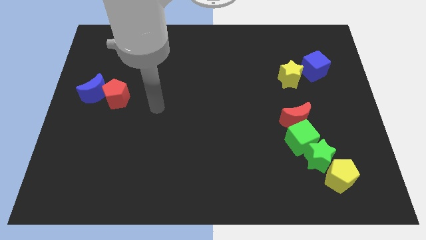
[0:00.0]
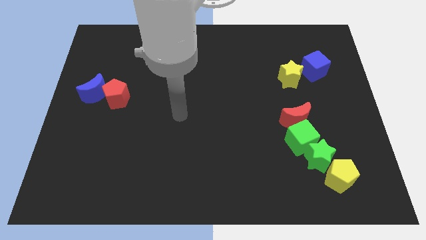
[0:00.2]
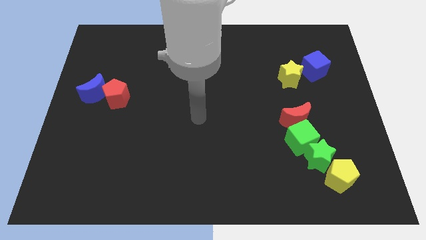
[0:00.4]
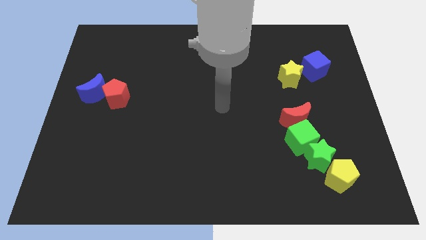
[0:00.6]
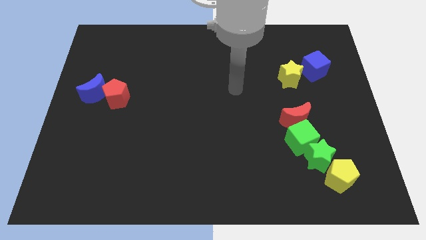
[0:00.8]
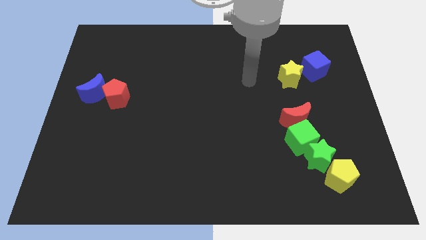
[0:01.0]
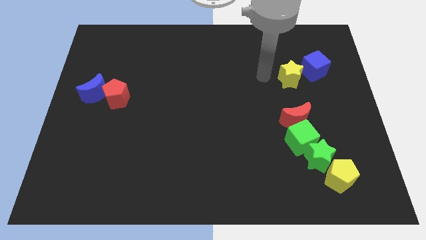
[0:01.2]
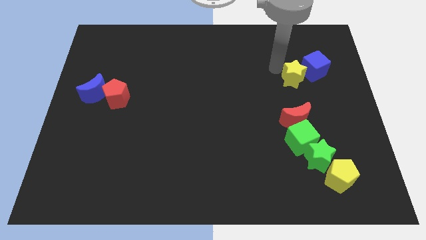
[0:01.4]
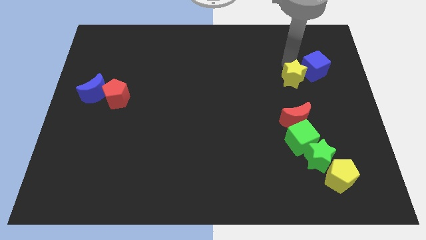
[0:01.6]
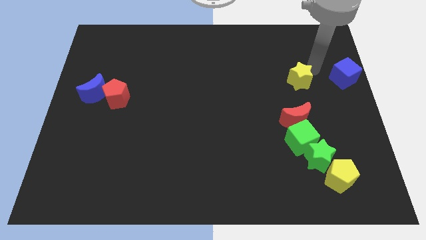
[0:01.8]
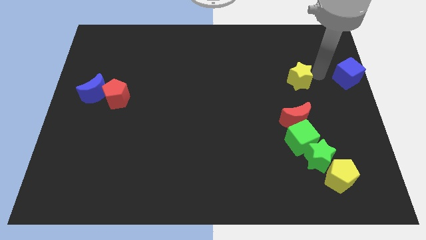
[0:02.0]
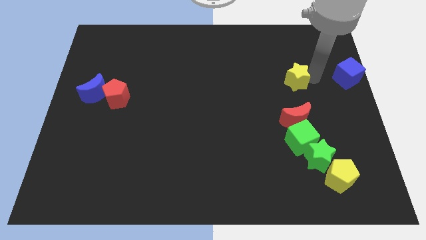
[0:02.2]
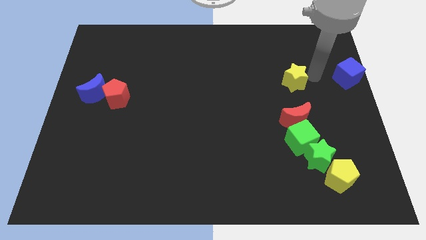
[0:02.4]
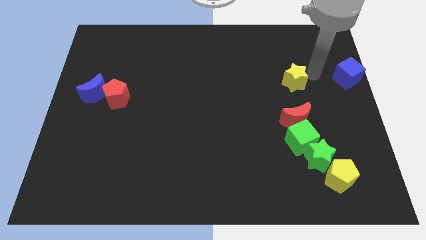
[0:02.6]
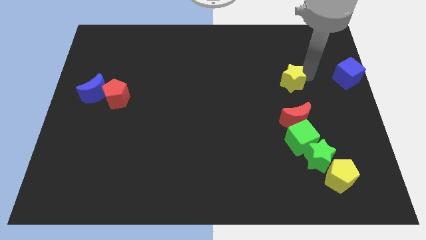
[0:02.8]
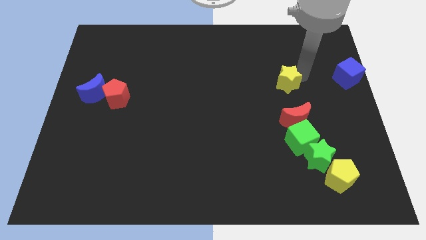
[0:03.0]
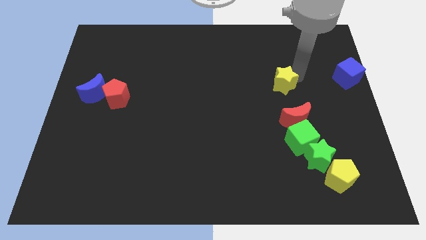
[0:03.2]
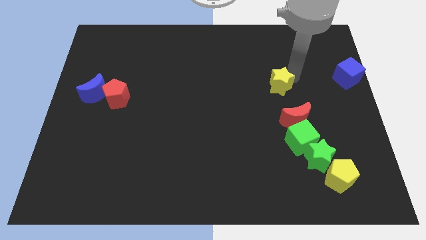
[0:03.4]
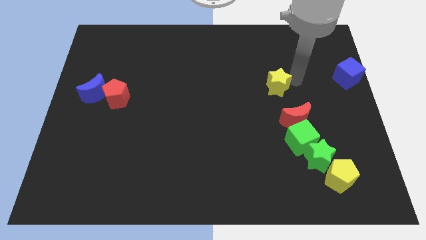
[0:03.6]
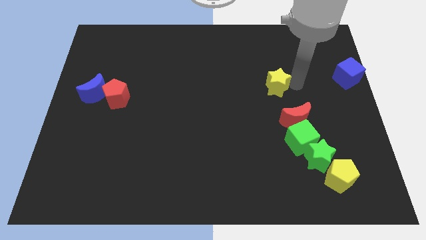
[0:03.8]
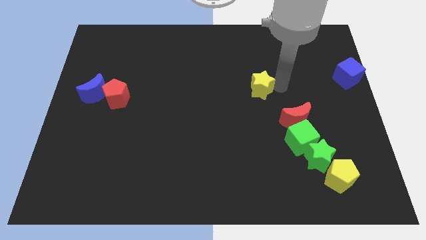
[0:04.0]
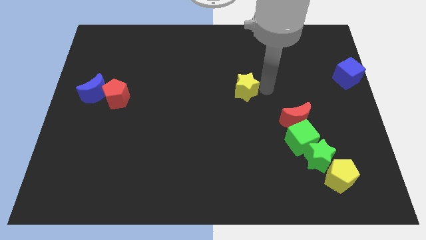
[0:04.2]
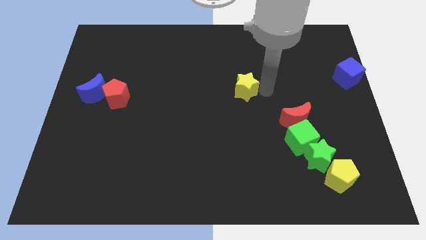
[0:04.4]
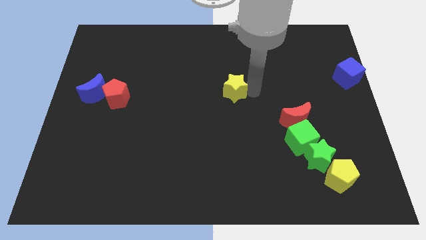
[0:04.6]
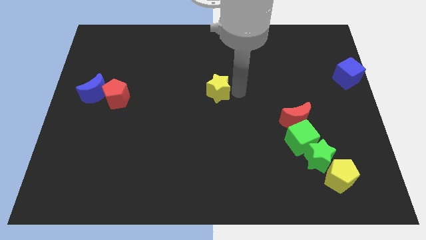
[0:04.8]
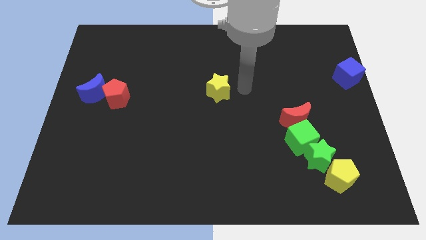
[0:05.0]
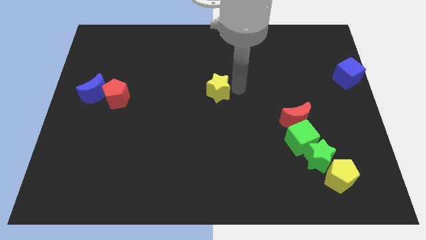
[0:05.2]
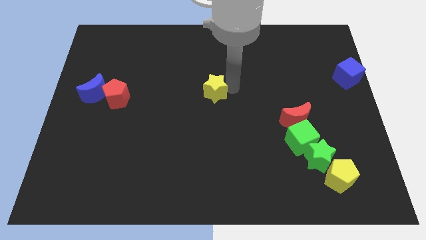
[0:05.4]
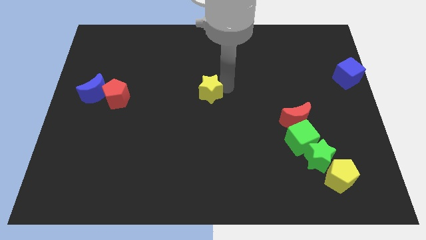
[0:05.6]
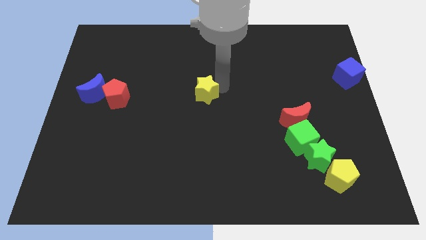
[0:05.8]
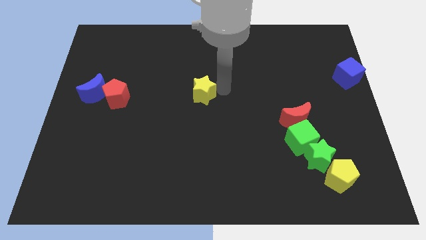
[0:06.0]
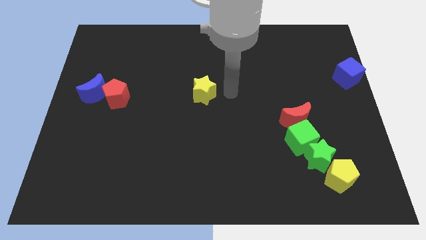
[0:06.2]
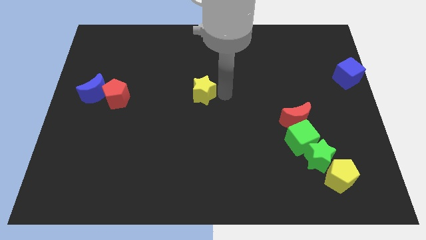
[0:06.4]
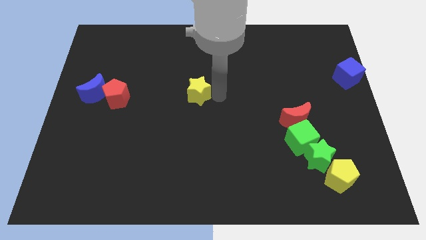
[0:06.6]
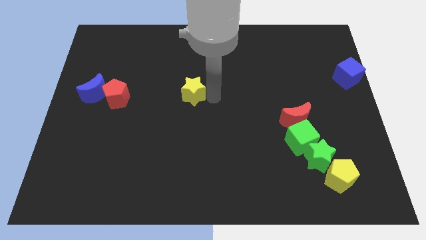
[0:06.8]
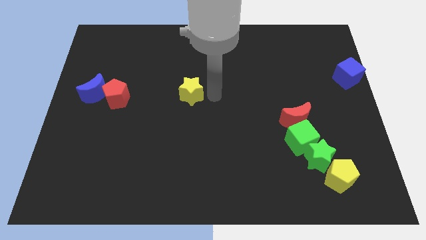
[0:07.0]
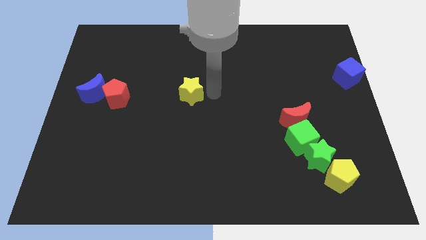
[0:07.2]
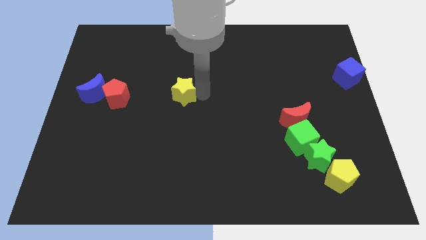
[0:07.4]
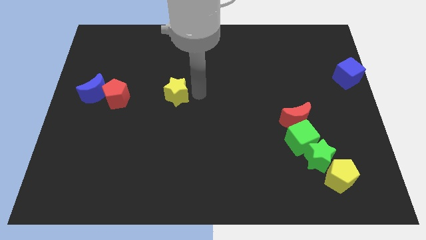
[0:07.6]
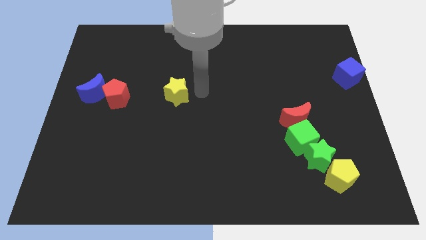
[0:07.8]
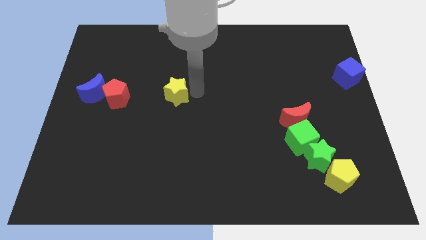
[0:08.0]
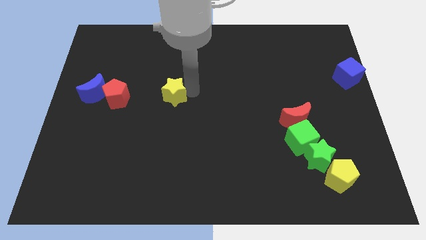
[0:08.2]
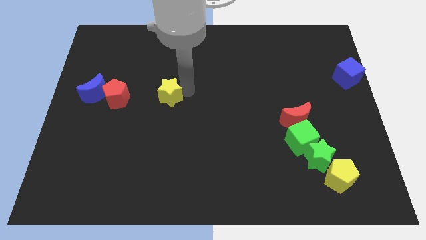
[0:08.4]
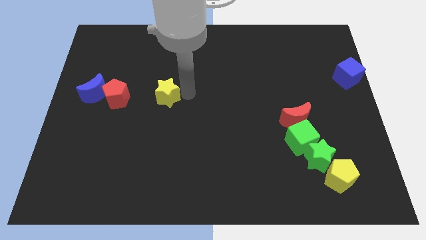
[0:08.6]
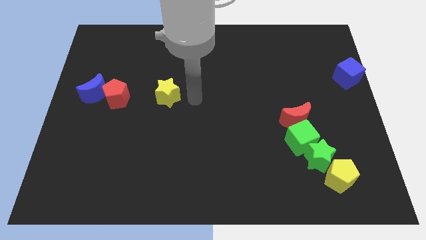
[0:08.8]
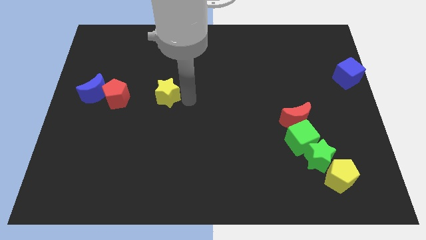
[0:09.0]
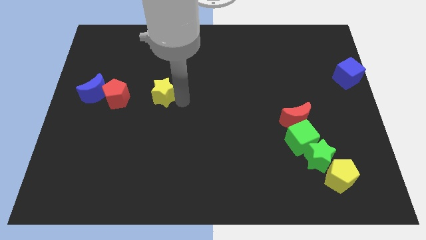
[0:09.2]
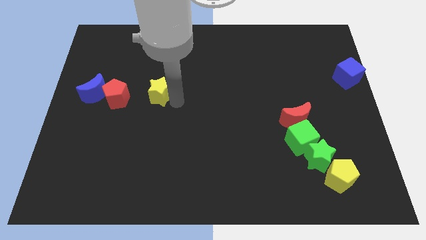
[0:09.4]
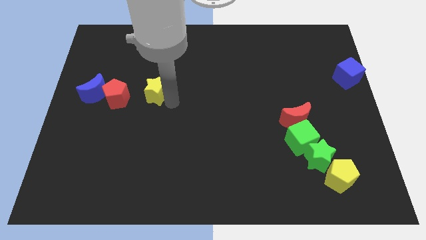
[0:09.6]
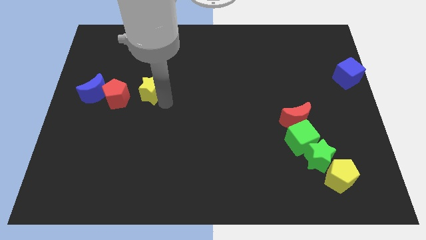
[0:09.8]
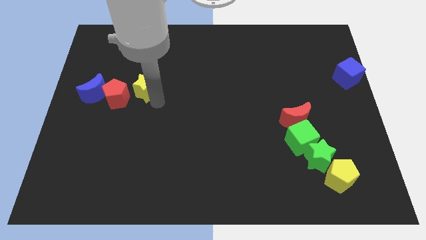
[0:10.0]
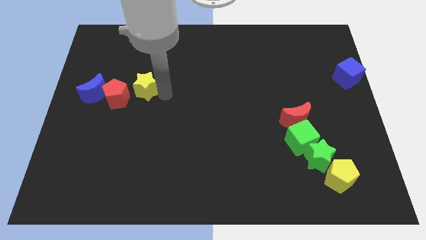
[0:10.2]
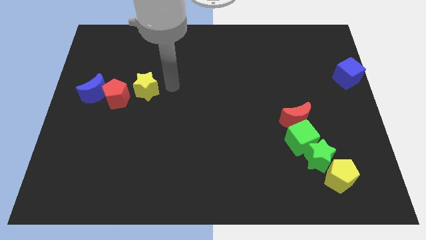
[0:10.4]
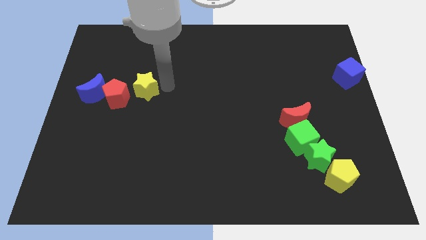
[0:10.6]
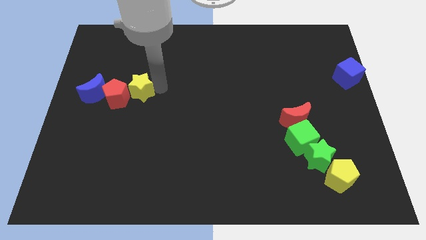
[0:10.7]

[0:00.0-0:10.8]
put the yellow star close to the red pentagon
